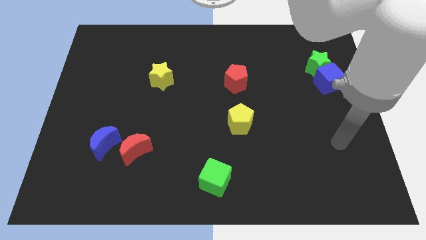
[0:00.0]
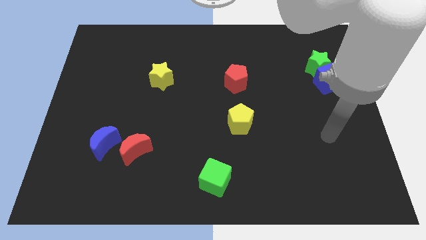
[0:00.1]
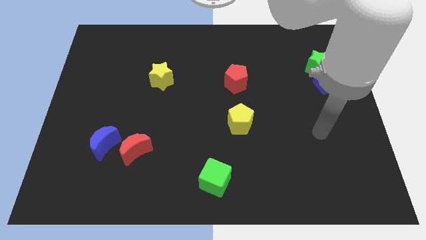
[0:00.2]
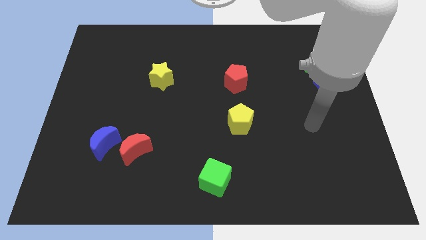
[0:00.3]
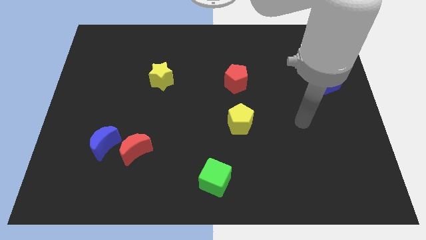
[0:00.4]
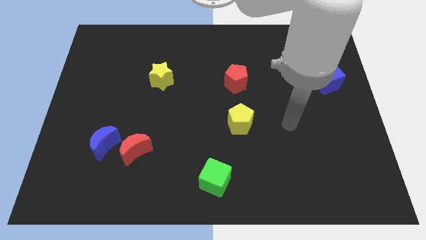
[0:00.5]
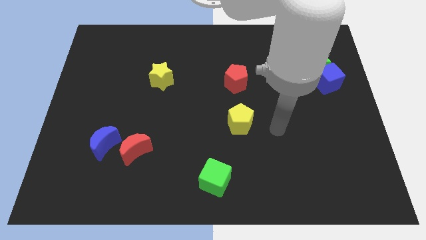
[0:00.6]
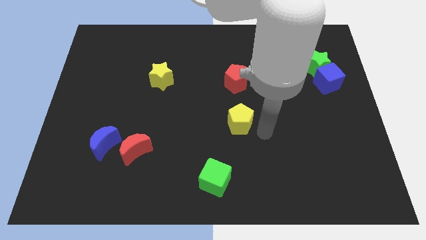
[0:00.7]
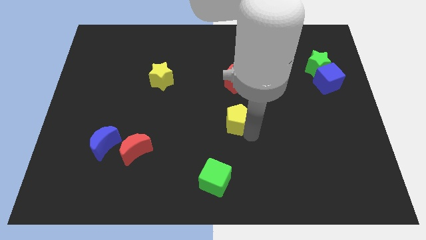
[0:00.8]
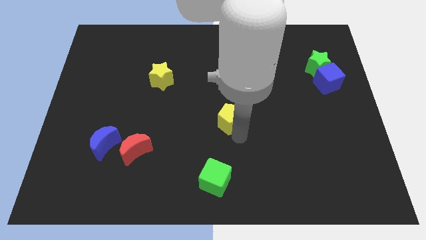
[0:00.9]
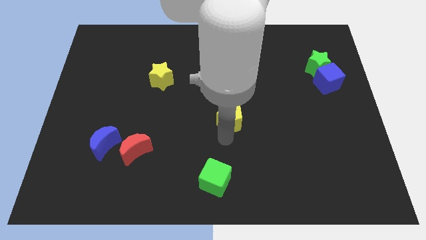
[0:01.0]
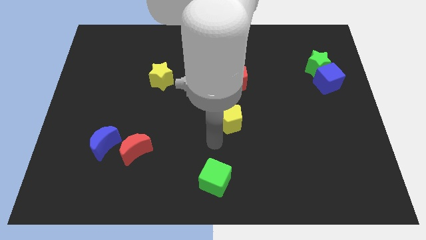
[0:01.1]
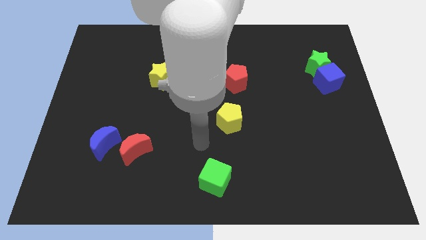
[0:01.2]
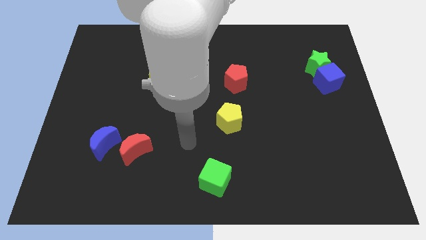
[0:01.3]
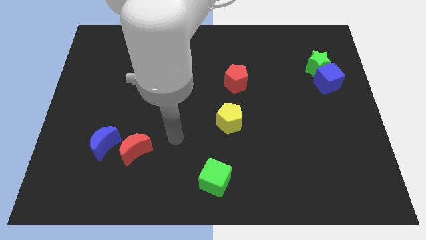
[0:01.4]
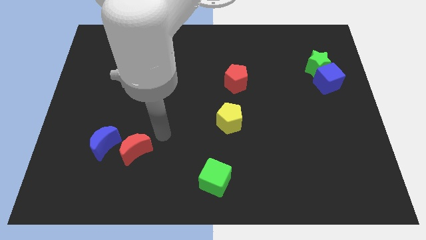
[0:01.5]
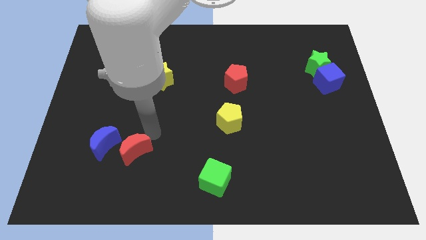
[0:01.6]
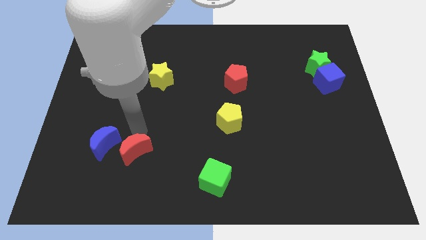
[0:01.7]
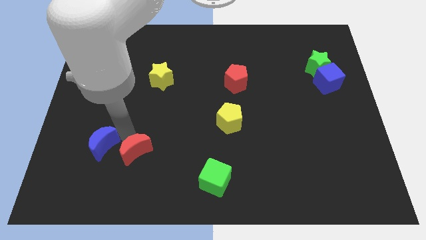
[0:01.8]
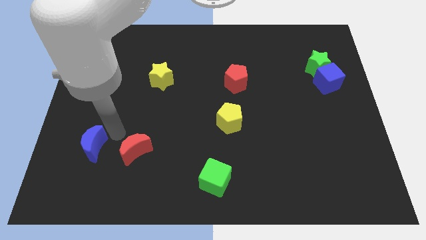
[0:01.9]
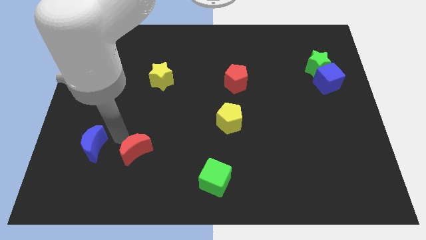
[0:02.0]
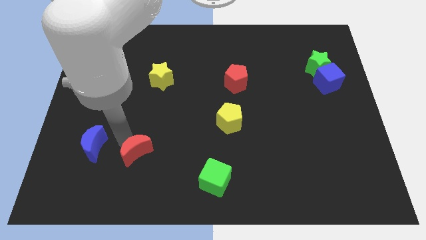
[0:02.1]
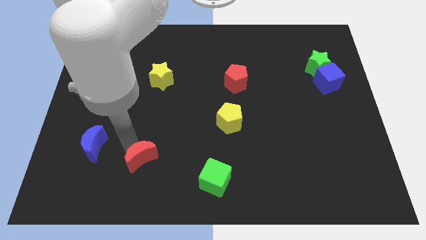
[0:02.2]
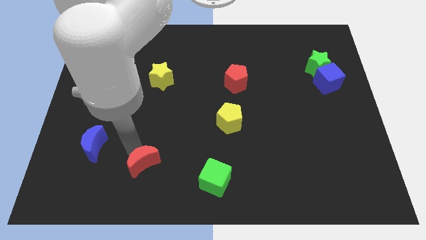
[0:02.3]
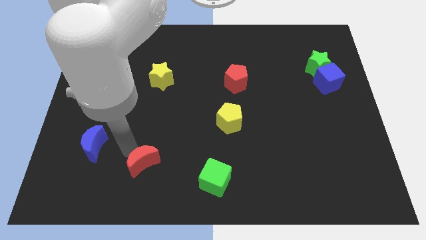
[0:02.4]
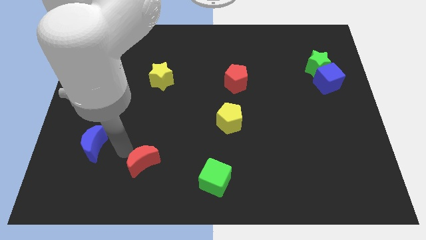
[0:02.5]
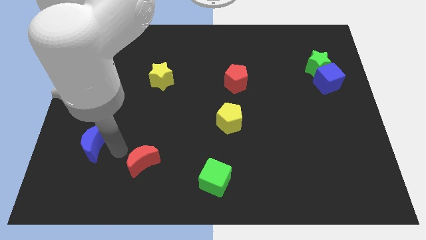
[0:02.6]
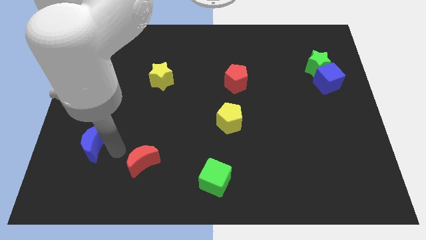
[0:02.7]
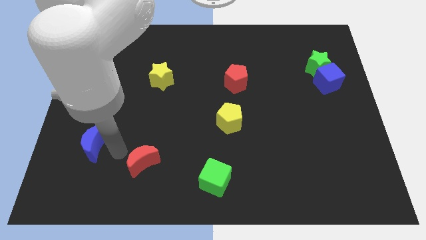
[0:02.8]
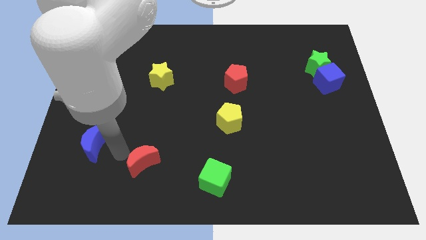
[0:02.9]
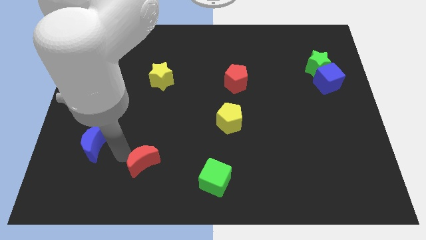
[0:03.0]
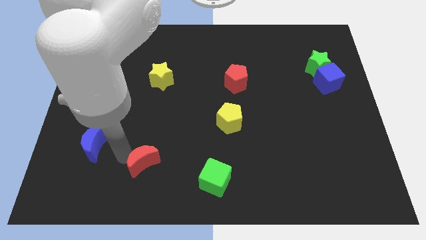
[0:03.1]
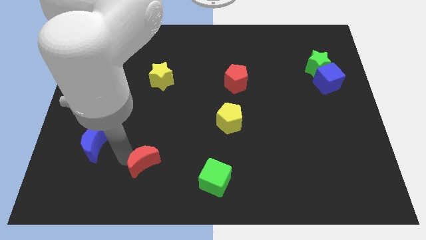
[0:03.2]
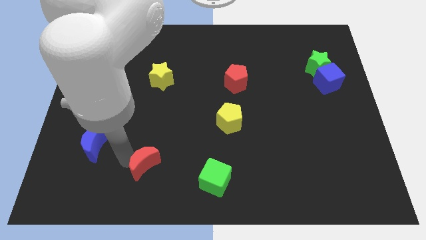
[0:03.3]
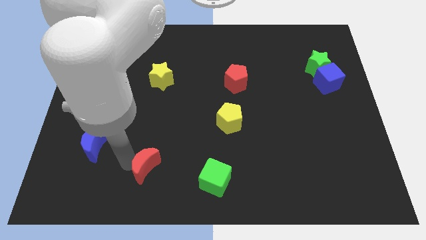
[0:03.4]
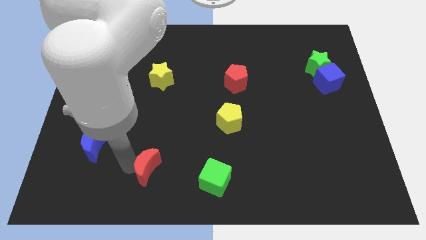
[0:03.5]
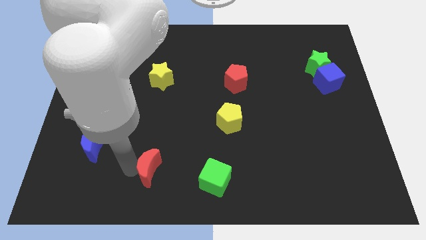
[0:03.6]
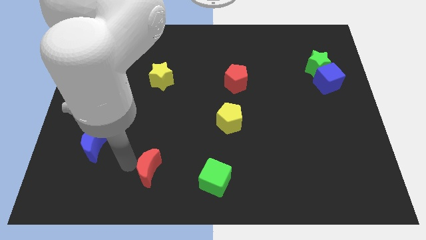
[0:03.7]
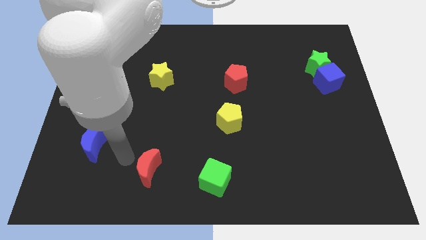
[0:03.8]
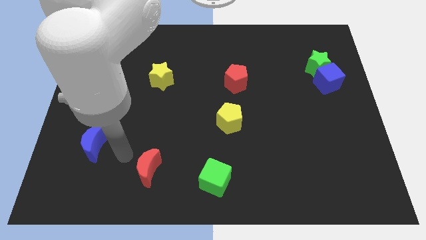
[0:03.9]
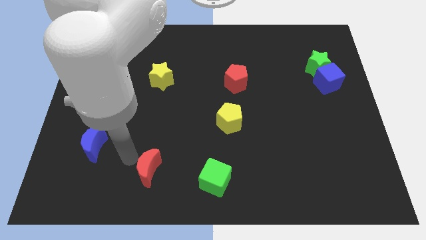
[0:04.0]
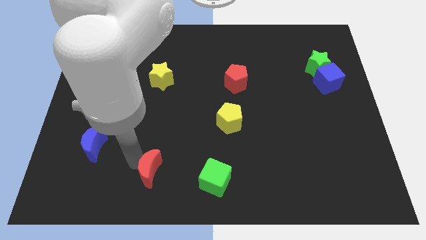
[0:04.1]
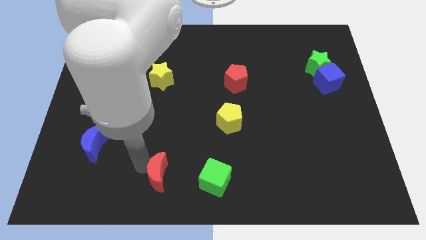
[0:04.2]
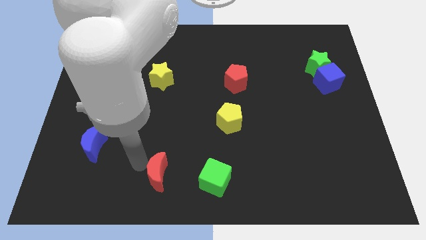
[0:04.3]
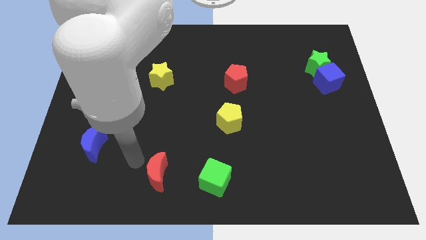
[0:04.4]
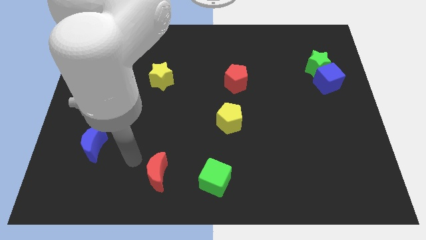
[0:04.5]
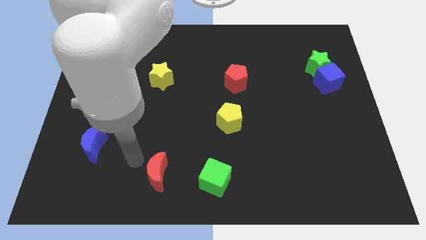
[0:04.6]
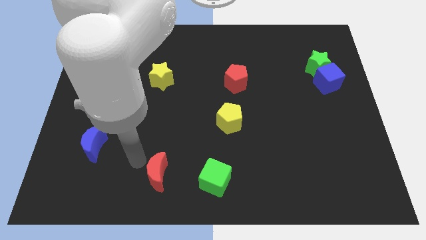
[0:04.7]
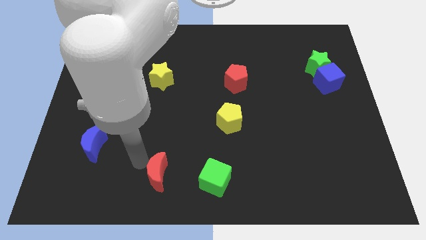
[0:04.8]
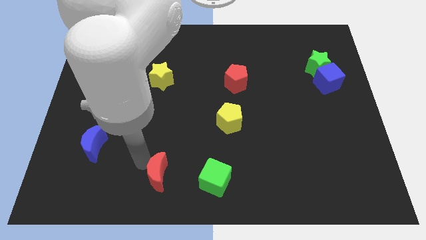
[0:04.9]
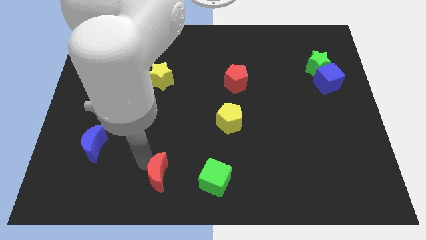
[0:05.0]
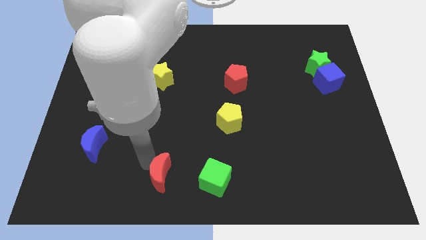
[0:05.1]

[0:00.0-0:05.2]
slide the red moon to the bottom

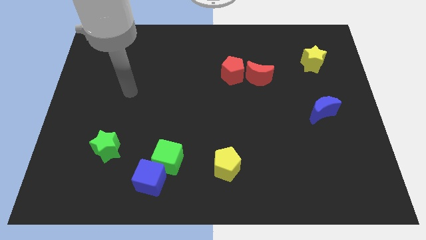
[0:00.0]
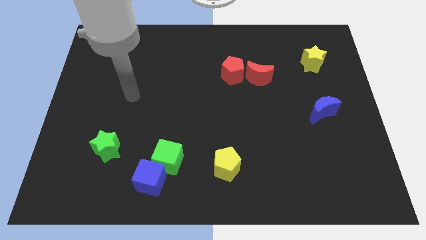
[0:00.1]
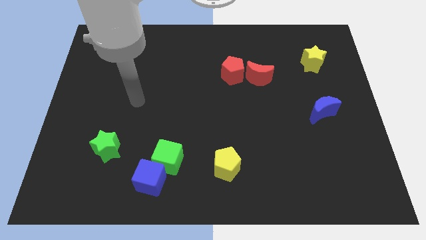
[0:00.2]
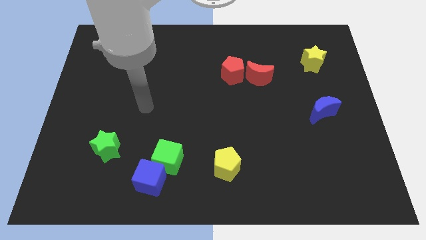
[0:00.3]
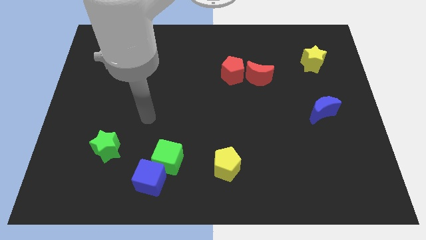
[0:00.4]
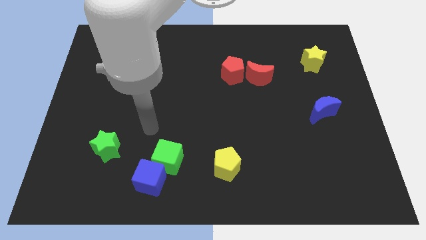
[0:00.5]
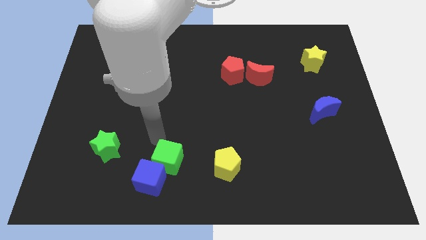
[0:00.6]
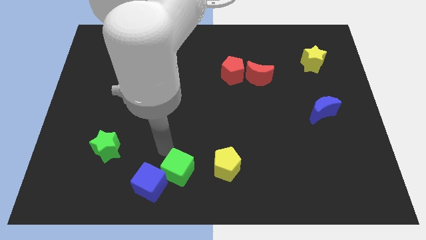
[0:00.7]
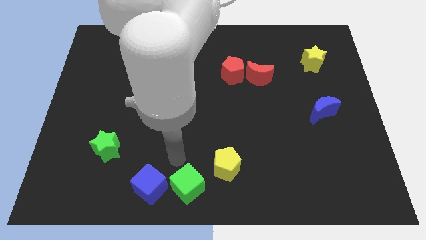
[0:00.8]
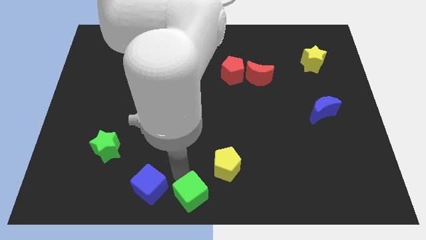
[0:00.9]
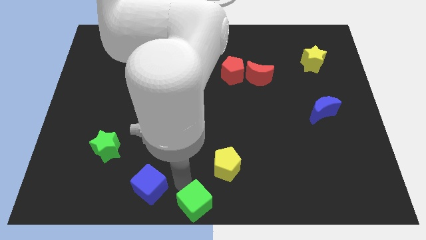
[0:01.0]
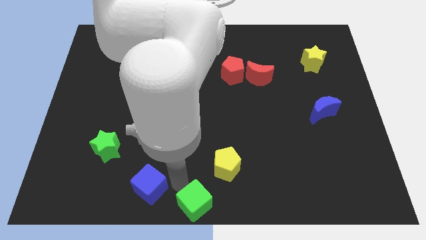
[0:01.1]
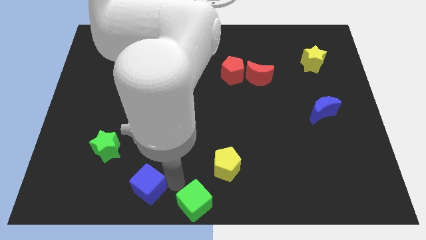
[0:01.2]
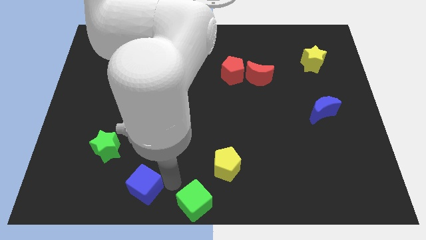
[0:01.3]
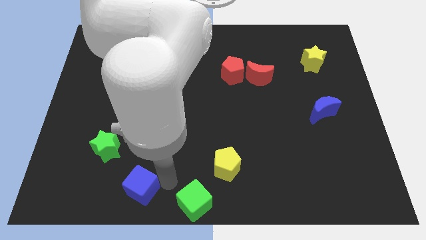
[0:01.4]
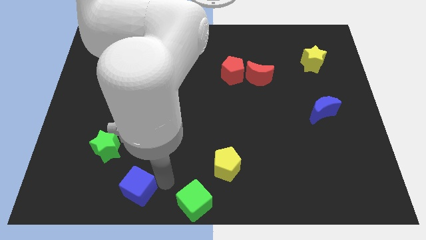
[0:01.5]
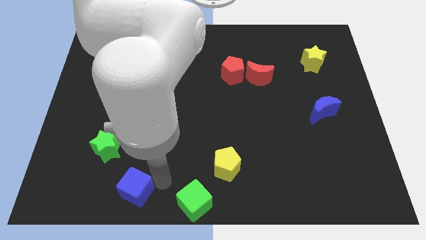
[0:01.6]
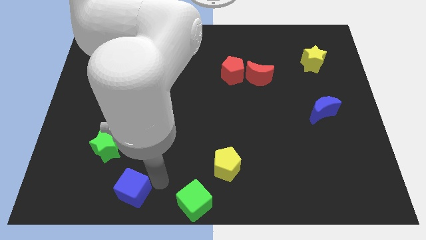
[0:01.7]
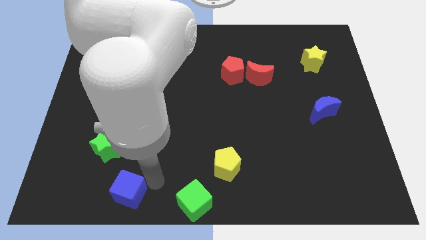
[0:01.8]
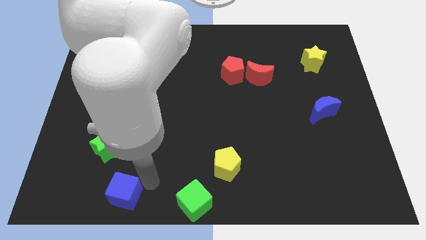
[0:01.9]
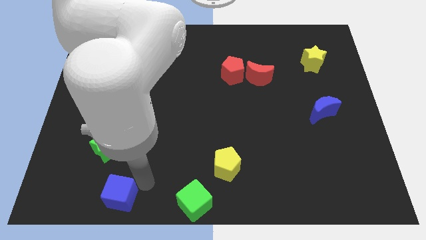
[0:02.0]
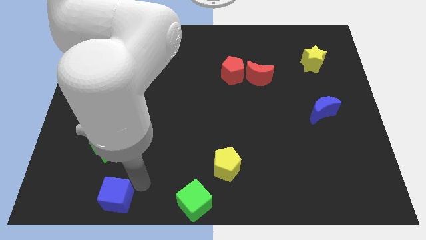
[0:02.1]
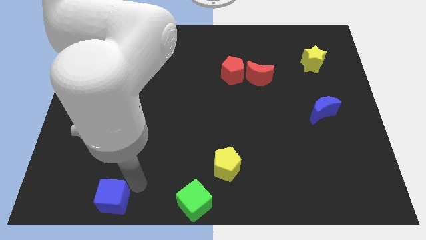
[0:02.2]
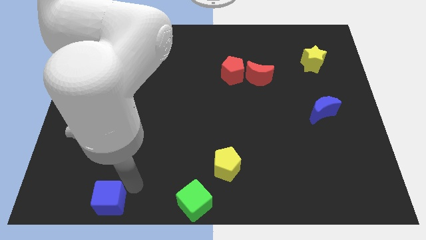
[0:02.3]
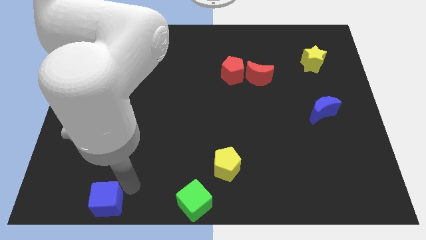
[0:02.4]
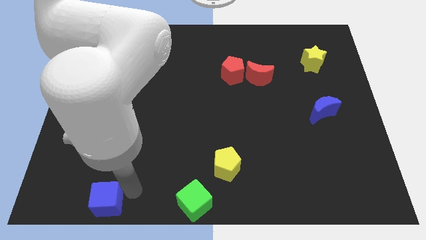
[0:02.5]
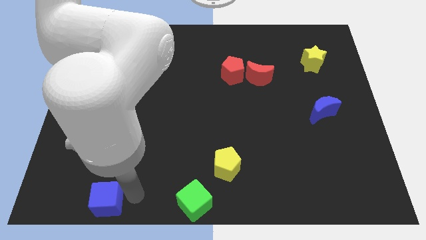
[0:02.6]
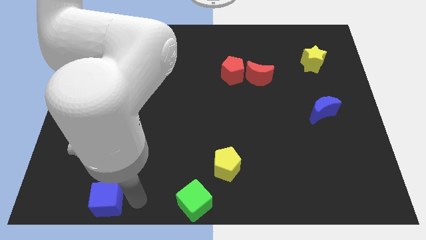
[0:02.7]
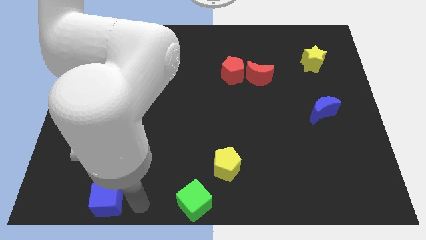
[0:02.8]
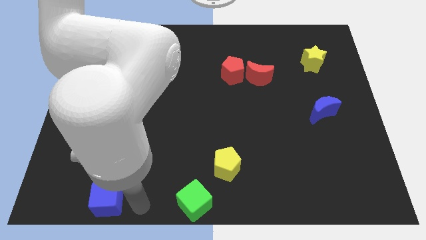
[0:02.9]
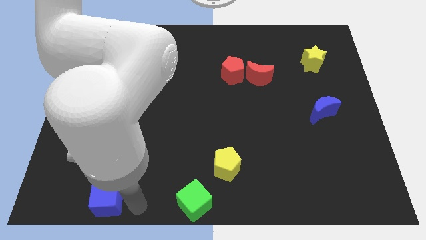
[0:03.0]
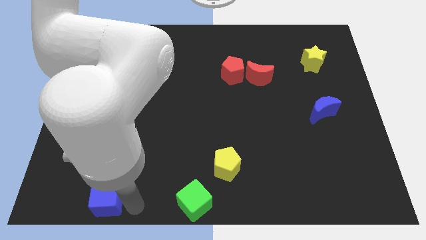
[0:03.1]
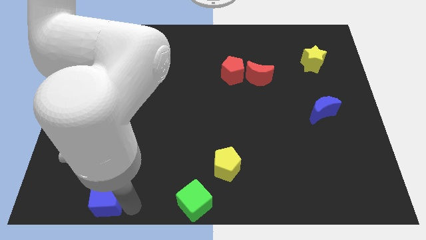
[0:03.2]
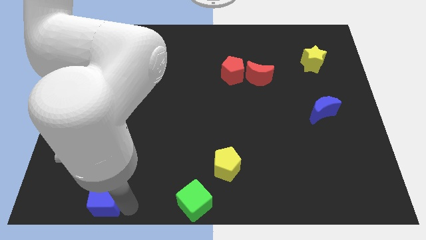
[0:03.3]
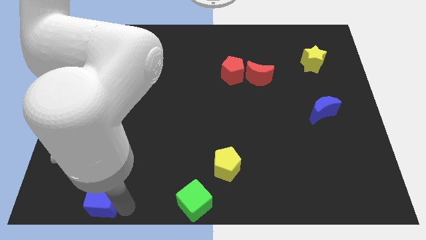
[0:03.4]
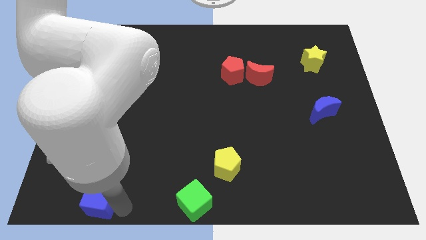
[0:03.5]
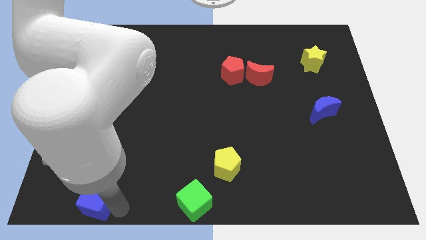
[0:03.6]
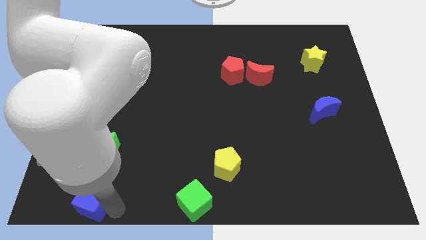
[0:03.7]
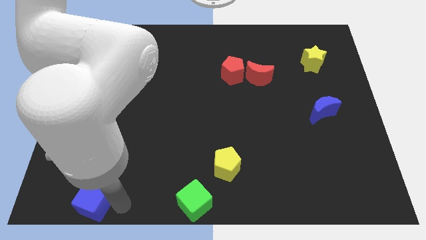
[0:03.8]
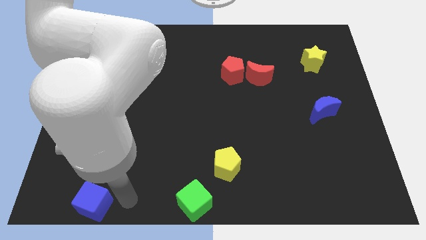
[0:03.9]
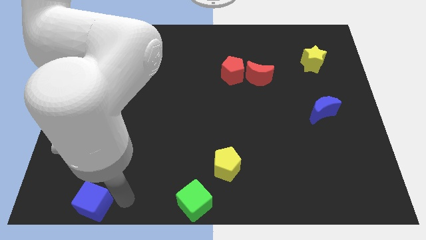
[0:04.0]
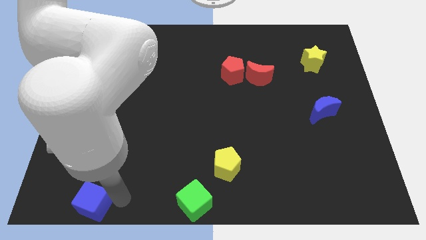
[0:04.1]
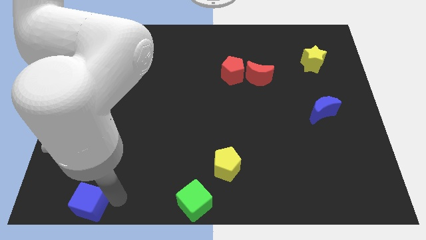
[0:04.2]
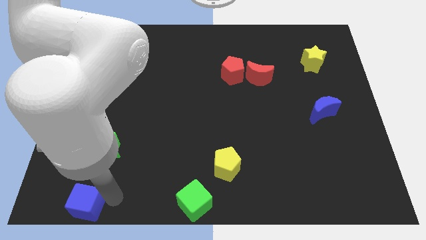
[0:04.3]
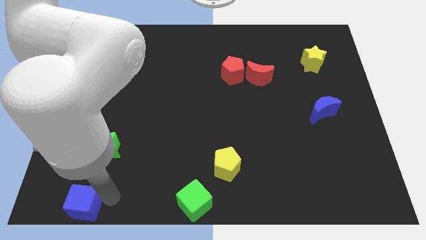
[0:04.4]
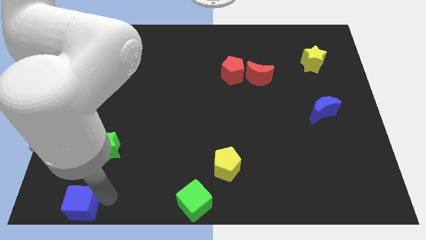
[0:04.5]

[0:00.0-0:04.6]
put the blue cube to the bottom left corner
